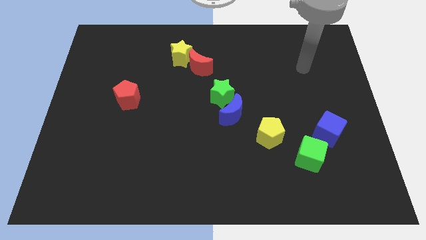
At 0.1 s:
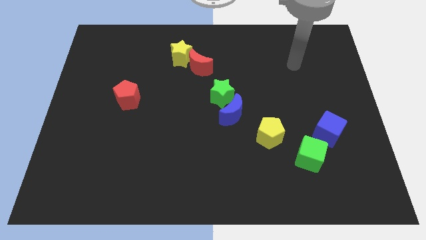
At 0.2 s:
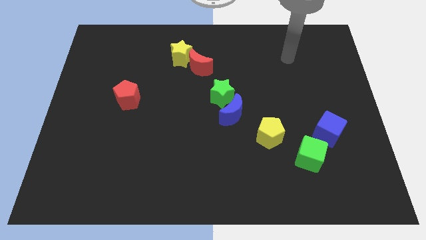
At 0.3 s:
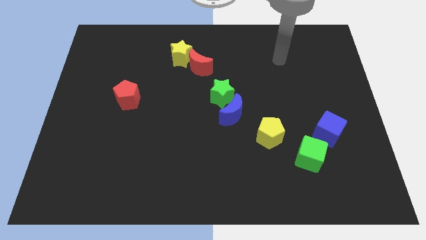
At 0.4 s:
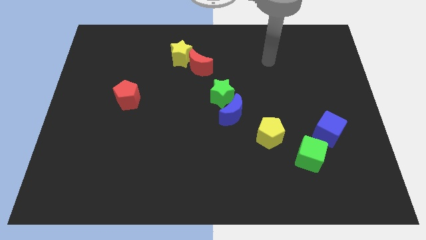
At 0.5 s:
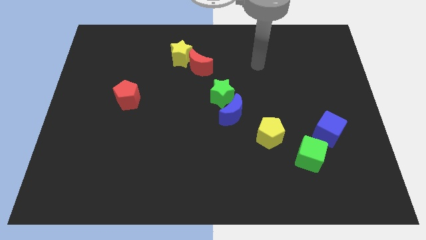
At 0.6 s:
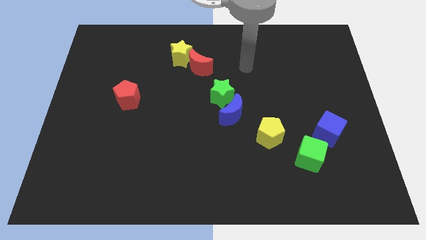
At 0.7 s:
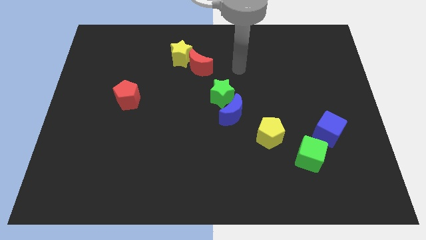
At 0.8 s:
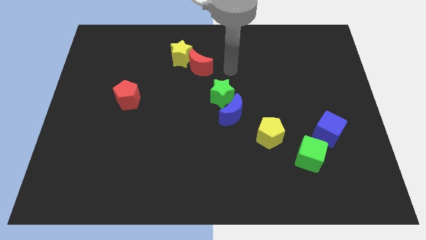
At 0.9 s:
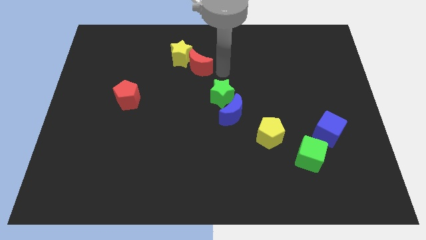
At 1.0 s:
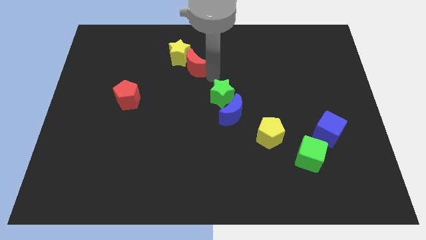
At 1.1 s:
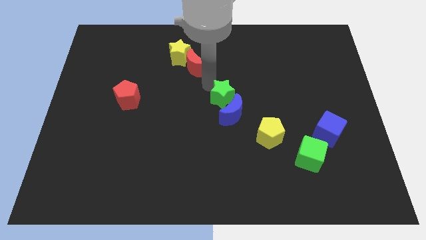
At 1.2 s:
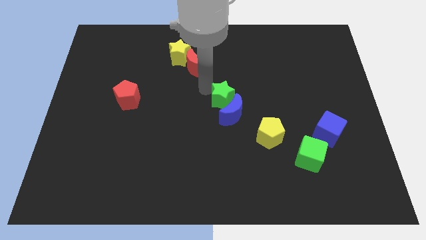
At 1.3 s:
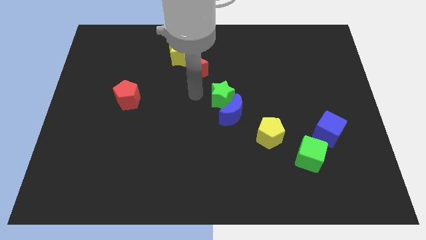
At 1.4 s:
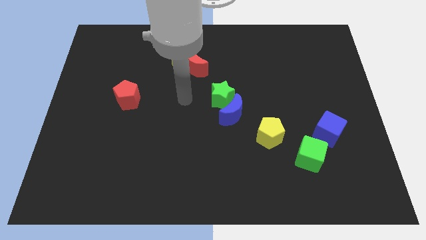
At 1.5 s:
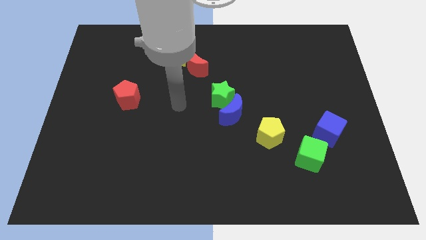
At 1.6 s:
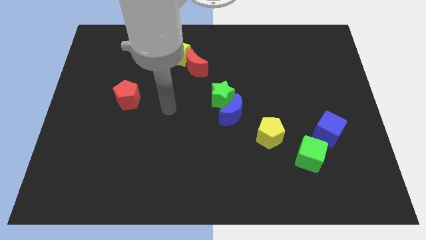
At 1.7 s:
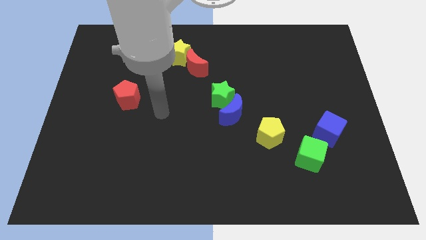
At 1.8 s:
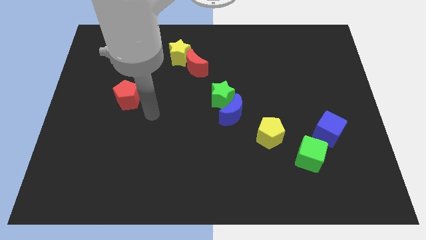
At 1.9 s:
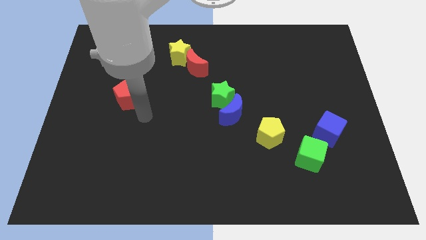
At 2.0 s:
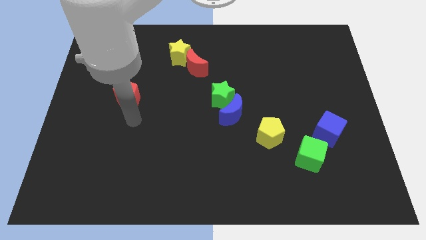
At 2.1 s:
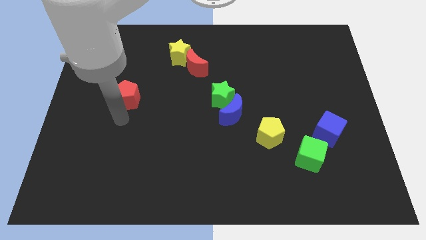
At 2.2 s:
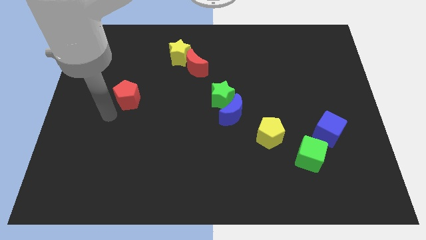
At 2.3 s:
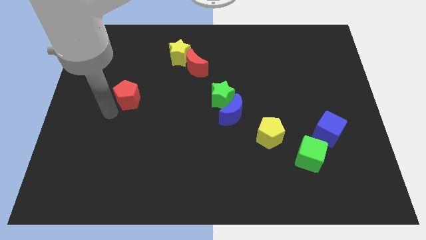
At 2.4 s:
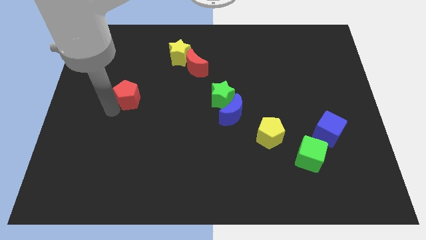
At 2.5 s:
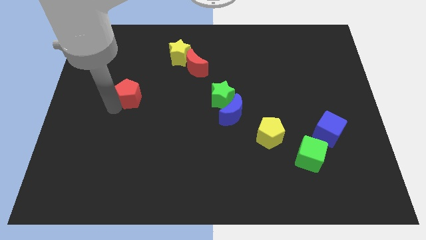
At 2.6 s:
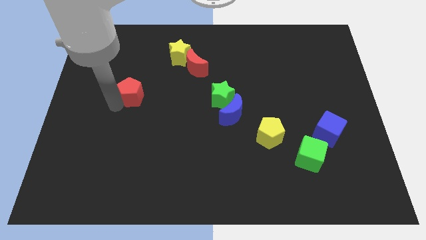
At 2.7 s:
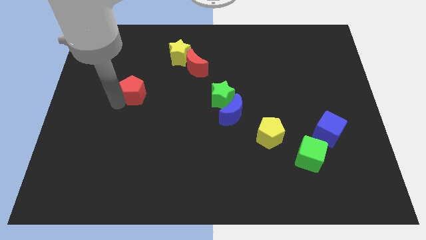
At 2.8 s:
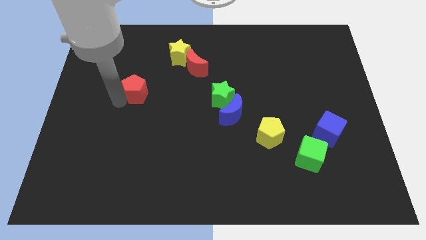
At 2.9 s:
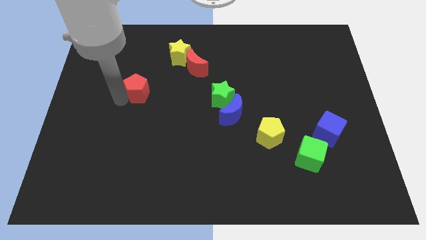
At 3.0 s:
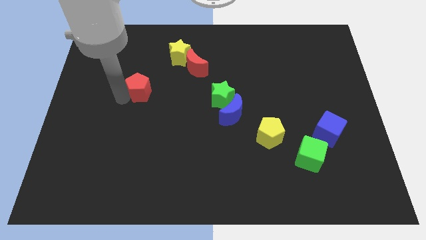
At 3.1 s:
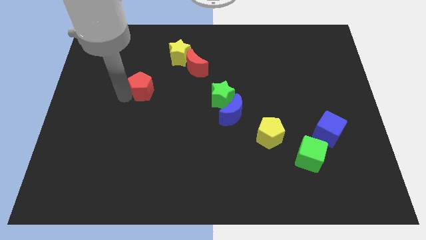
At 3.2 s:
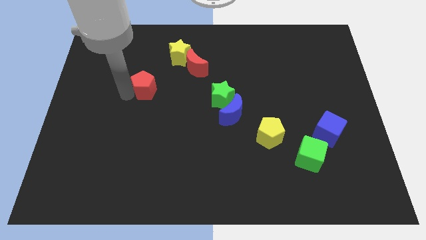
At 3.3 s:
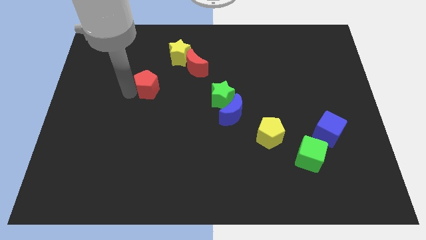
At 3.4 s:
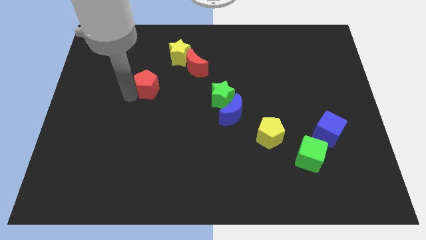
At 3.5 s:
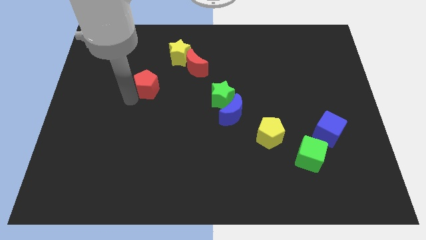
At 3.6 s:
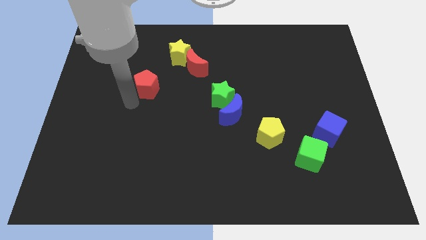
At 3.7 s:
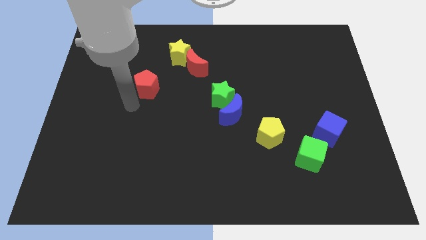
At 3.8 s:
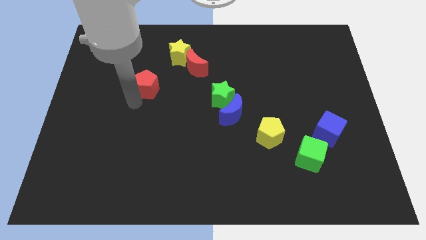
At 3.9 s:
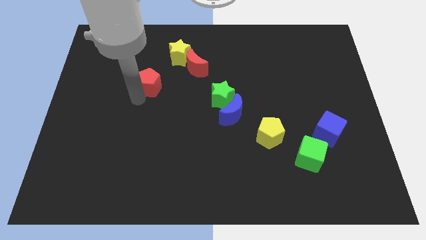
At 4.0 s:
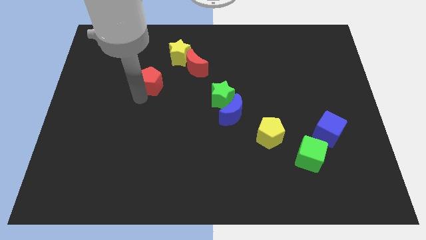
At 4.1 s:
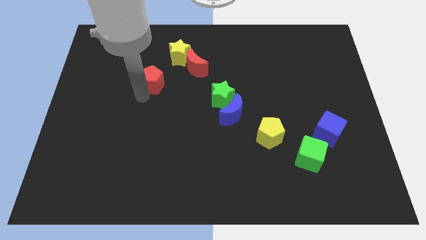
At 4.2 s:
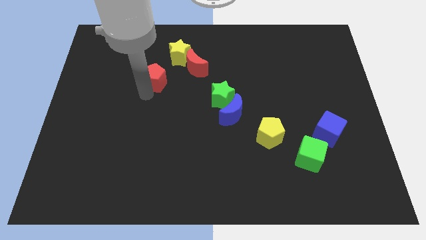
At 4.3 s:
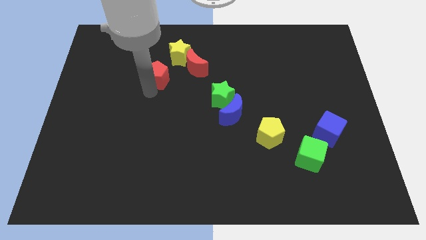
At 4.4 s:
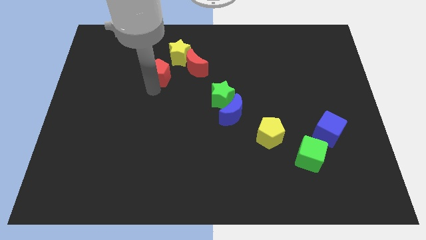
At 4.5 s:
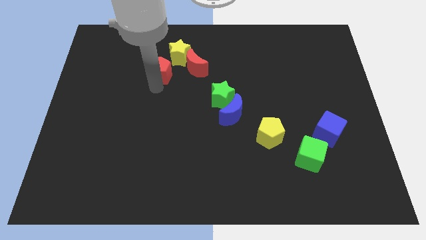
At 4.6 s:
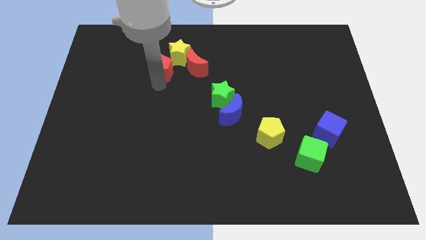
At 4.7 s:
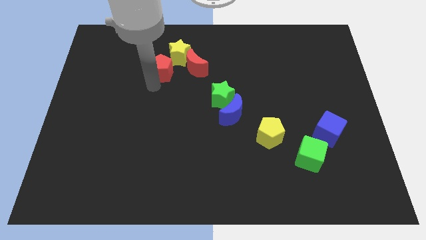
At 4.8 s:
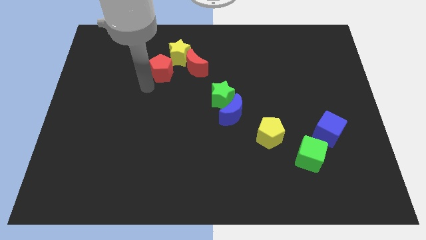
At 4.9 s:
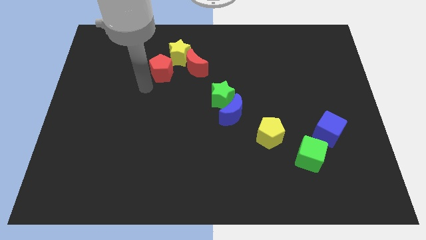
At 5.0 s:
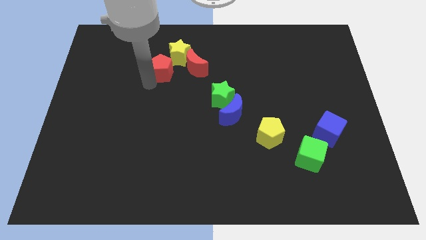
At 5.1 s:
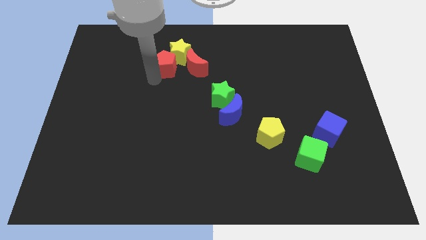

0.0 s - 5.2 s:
move the red pentagon next to the yellow star

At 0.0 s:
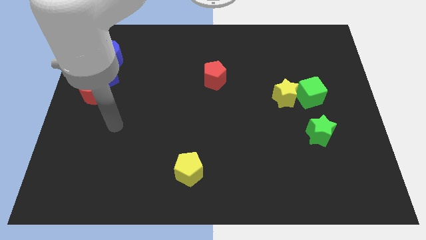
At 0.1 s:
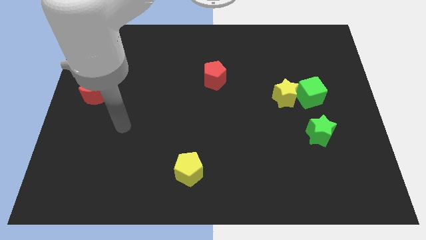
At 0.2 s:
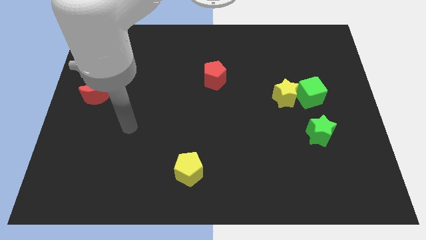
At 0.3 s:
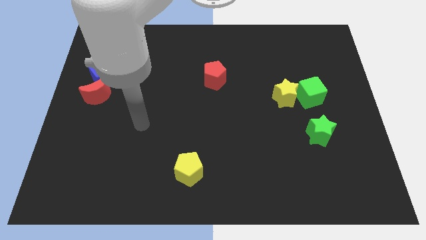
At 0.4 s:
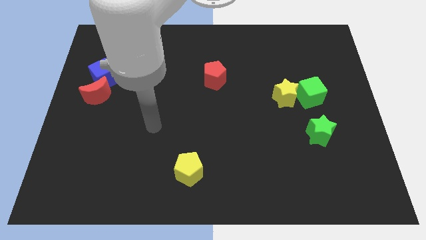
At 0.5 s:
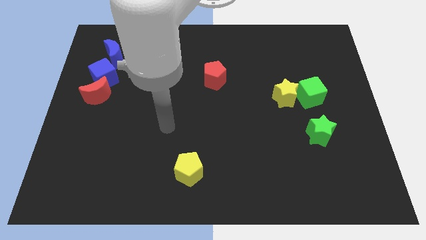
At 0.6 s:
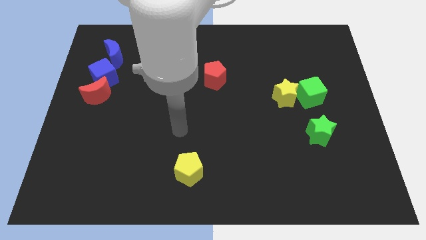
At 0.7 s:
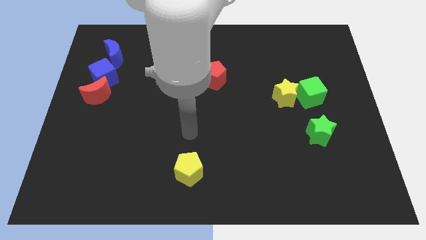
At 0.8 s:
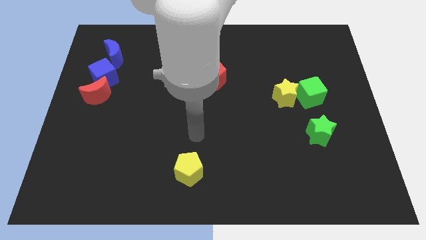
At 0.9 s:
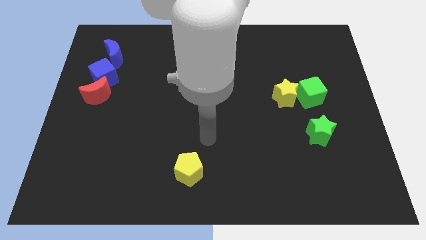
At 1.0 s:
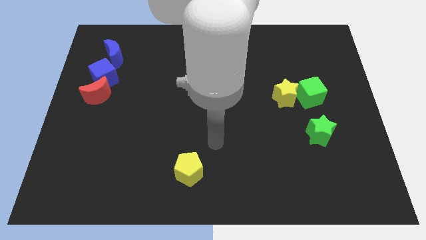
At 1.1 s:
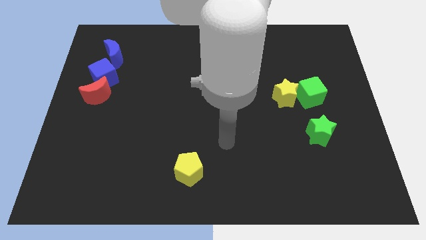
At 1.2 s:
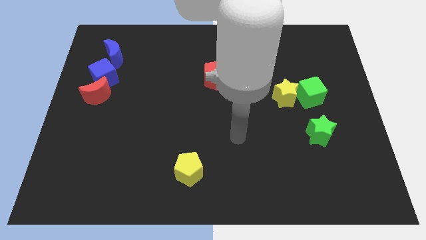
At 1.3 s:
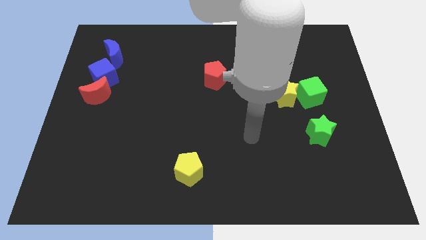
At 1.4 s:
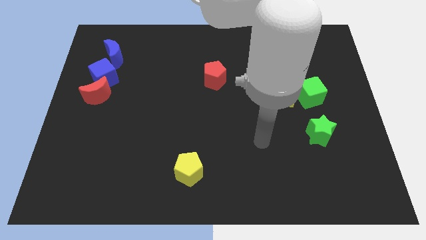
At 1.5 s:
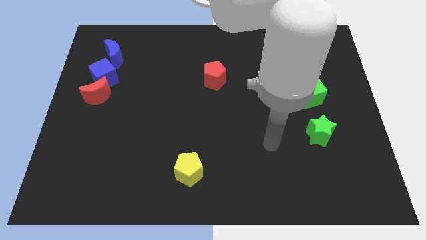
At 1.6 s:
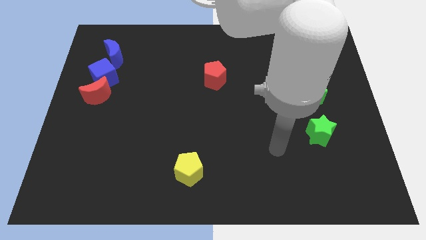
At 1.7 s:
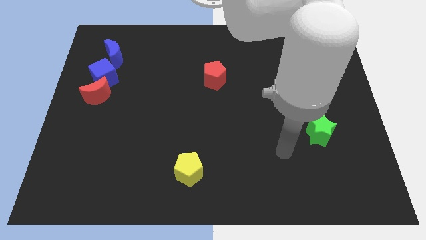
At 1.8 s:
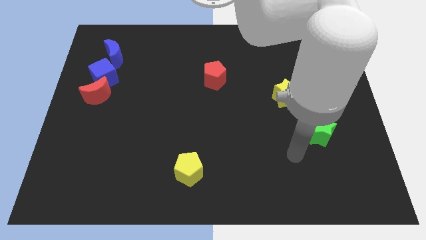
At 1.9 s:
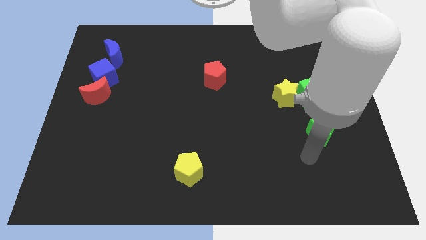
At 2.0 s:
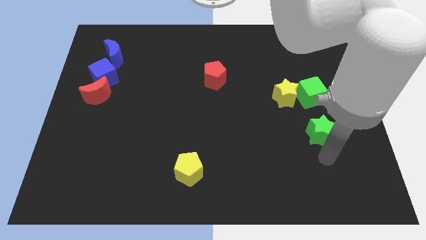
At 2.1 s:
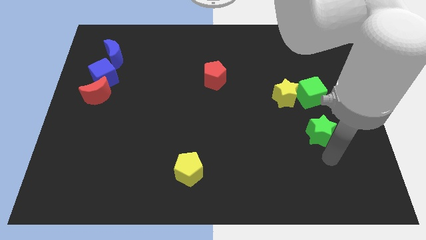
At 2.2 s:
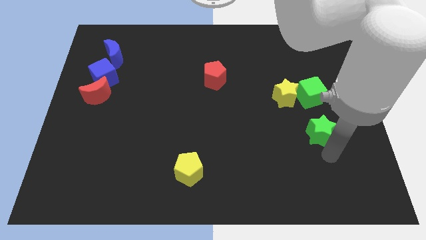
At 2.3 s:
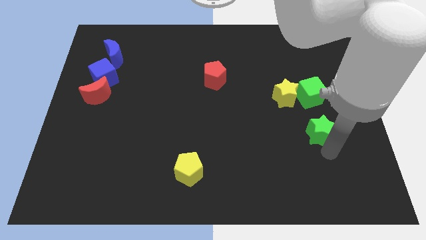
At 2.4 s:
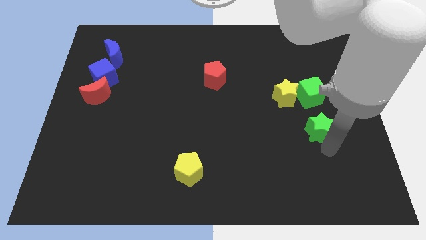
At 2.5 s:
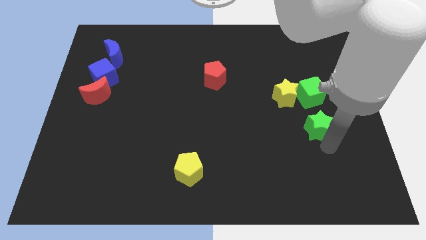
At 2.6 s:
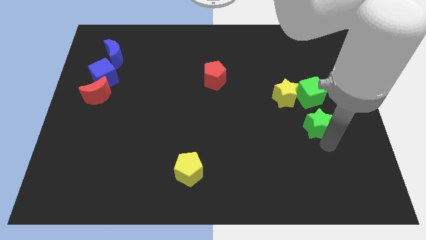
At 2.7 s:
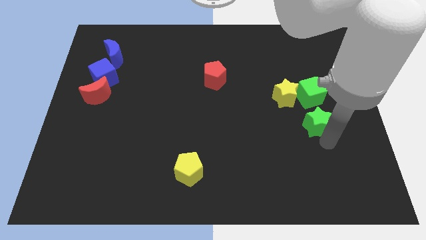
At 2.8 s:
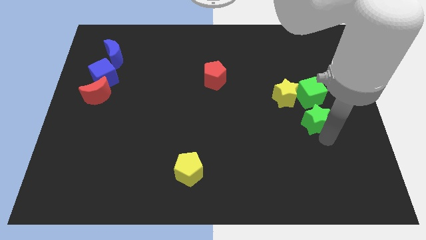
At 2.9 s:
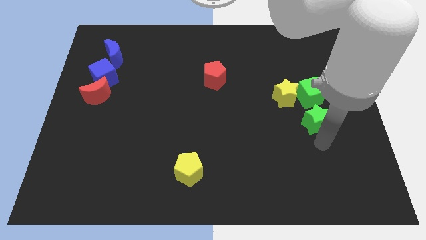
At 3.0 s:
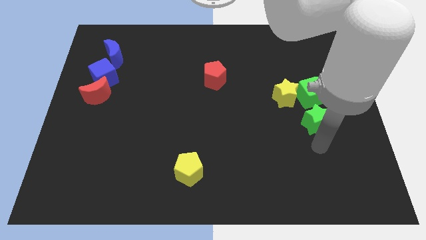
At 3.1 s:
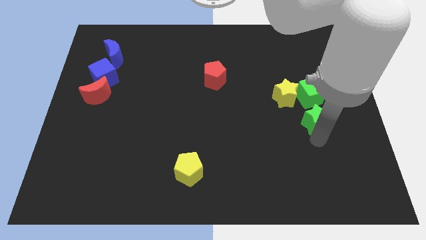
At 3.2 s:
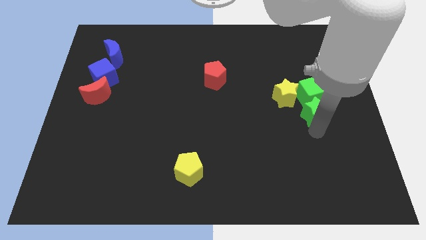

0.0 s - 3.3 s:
push the green star close to the green cube
